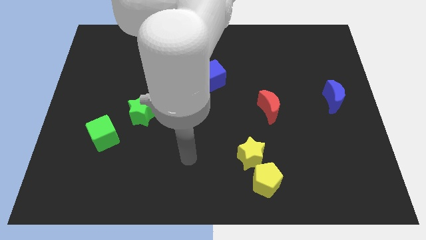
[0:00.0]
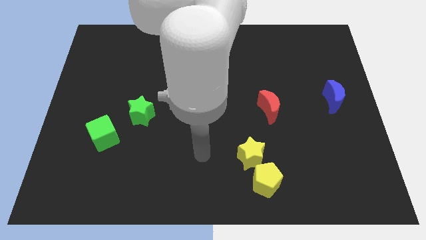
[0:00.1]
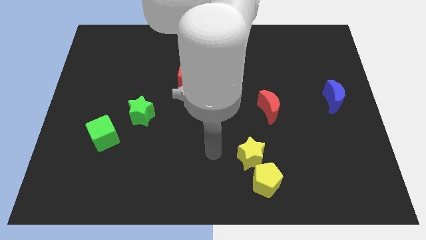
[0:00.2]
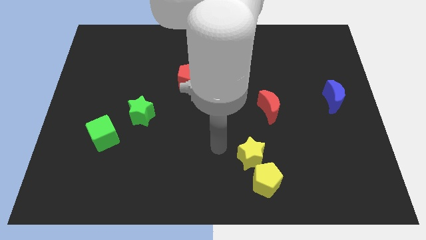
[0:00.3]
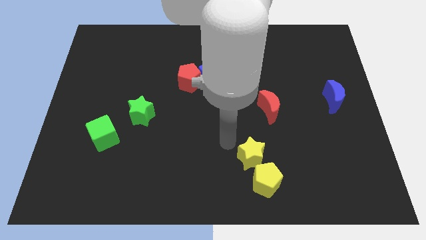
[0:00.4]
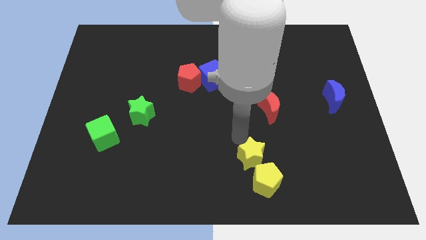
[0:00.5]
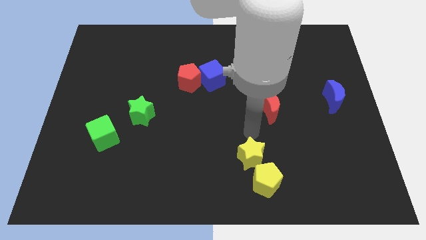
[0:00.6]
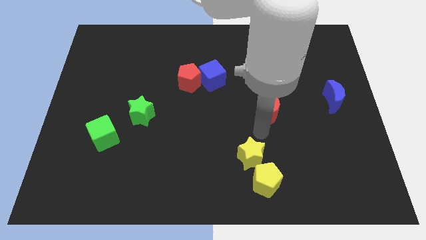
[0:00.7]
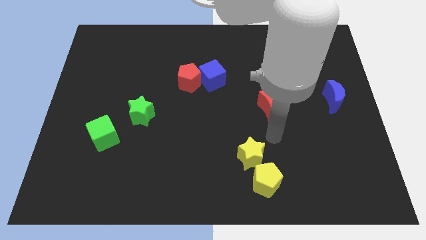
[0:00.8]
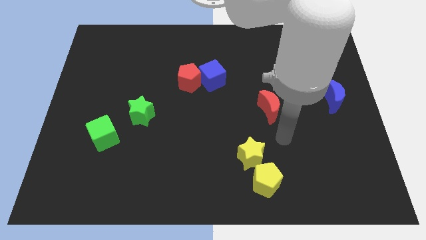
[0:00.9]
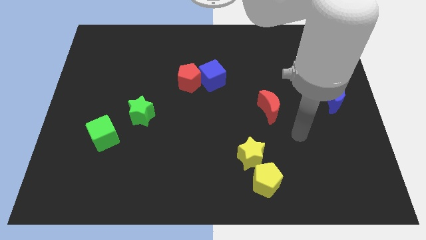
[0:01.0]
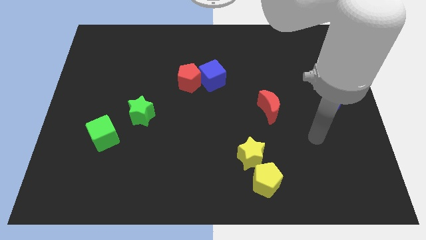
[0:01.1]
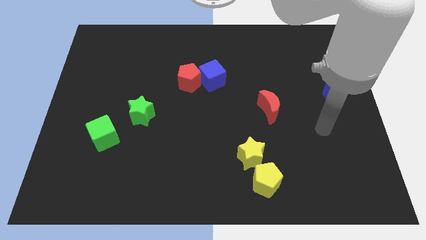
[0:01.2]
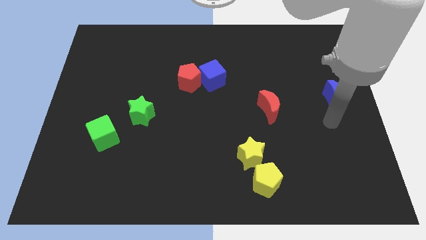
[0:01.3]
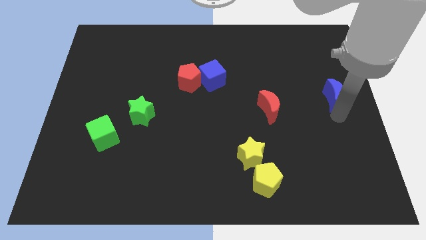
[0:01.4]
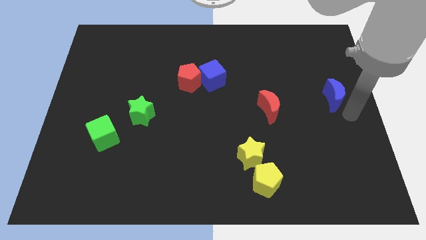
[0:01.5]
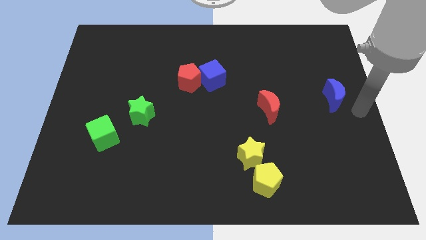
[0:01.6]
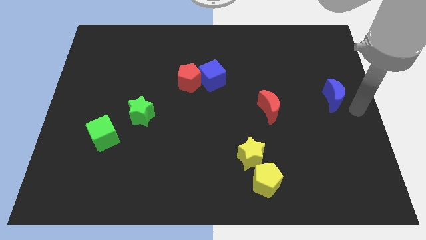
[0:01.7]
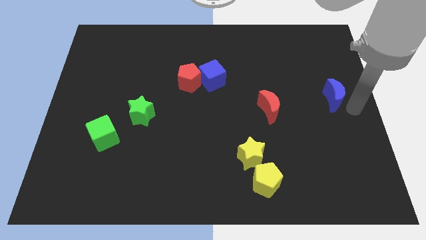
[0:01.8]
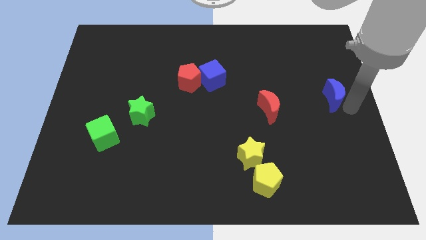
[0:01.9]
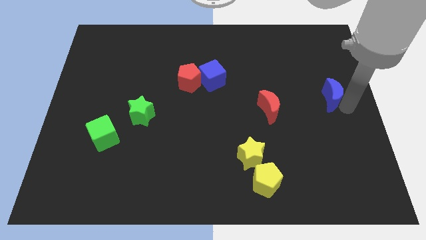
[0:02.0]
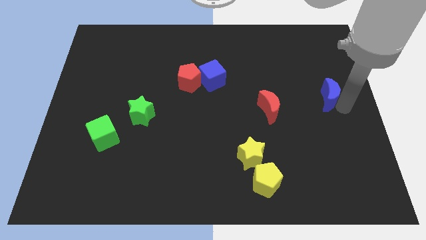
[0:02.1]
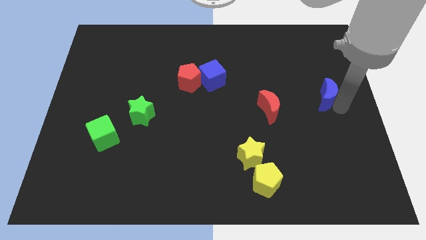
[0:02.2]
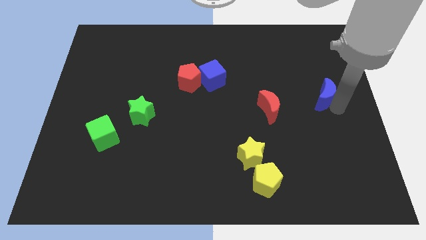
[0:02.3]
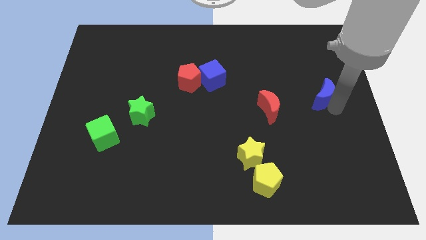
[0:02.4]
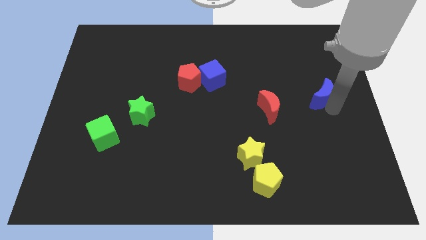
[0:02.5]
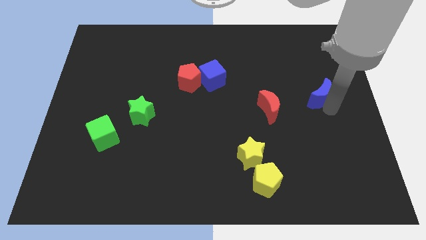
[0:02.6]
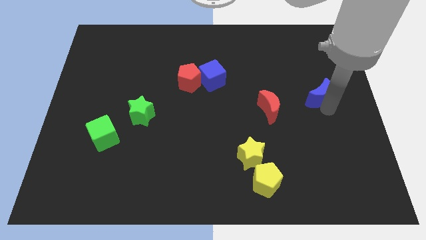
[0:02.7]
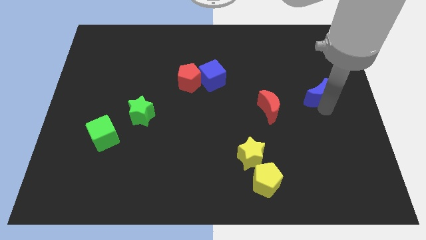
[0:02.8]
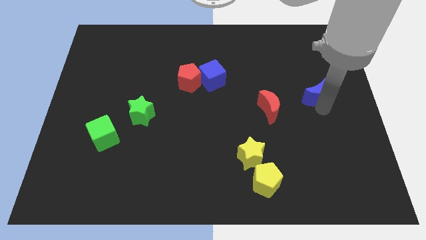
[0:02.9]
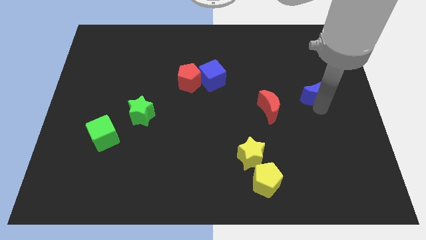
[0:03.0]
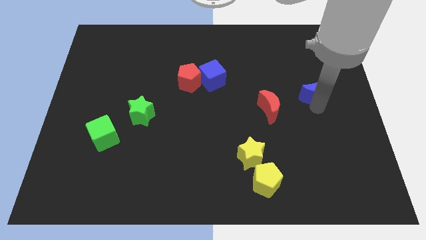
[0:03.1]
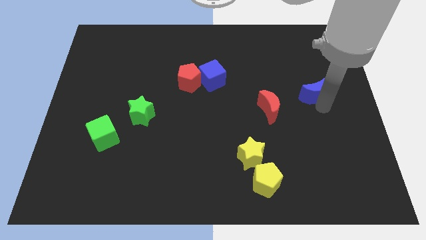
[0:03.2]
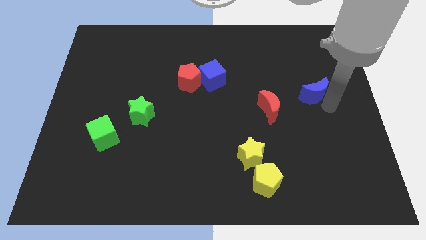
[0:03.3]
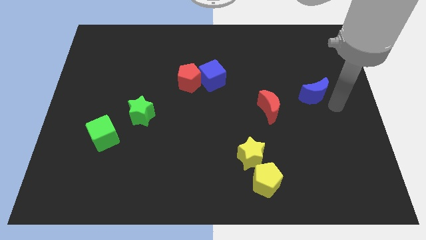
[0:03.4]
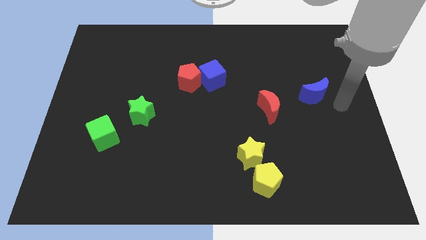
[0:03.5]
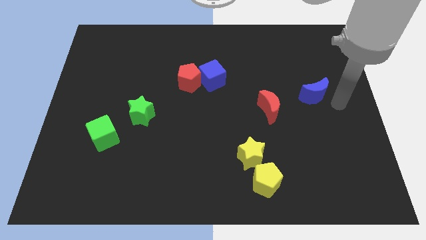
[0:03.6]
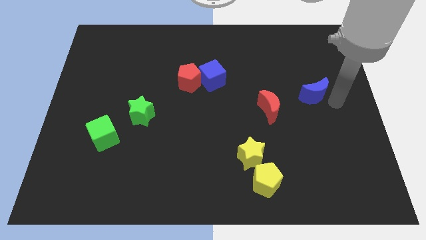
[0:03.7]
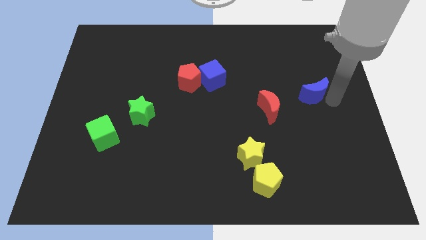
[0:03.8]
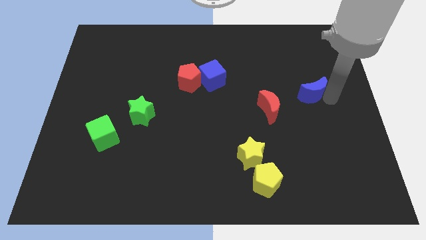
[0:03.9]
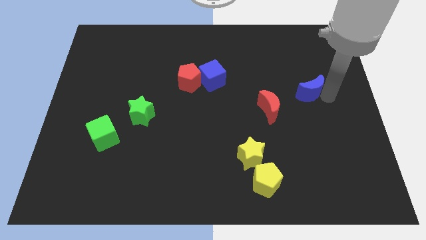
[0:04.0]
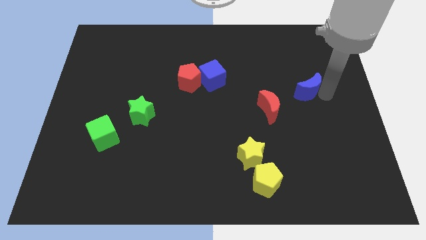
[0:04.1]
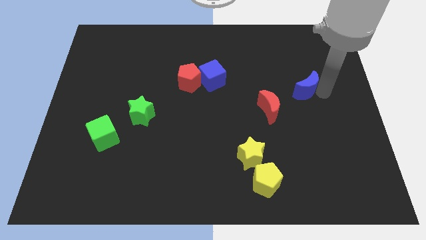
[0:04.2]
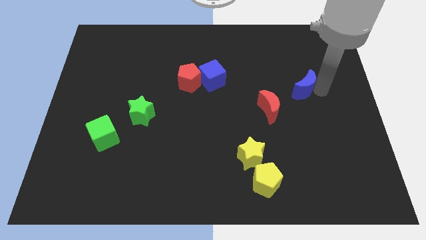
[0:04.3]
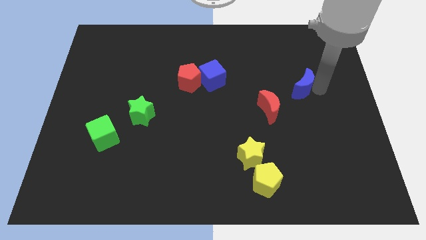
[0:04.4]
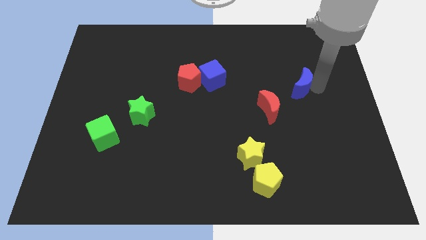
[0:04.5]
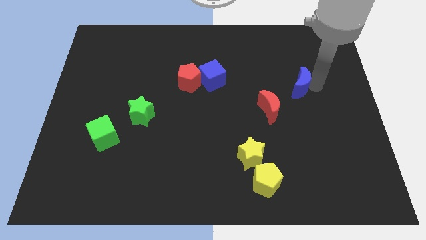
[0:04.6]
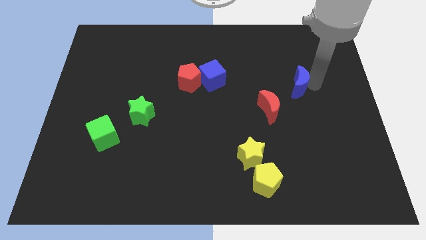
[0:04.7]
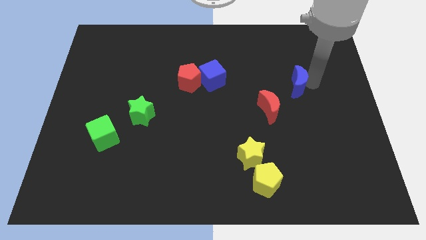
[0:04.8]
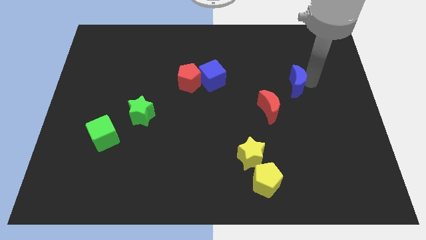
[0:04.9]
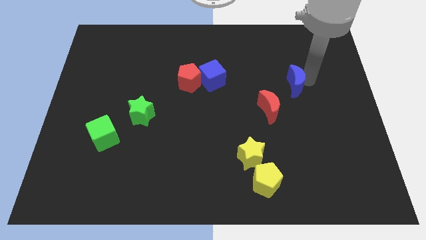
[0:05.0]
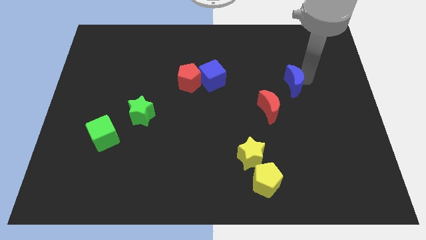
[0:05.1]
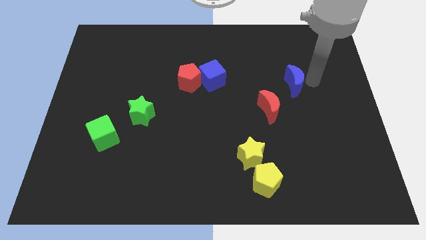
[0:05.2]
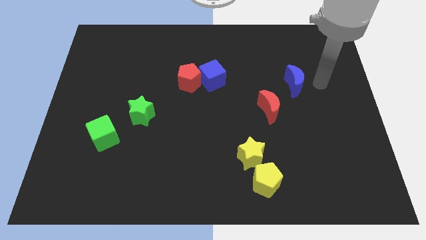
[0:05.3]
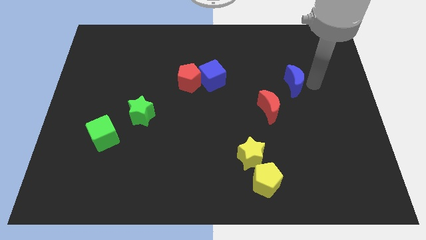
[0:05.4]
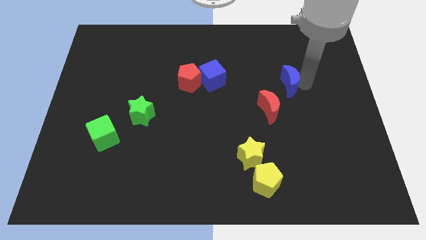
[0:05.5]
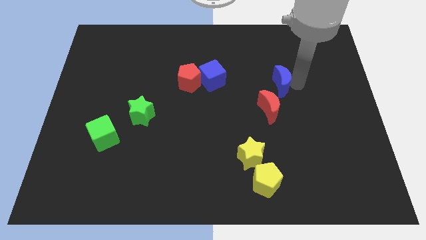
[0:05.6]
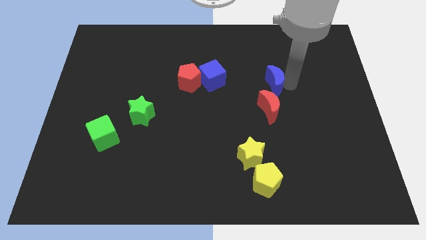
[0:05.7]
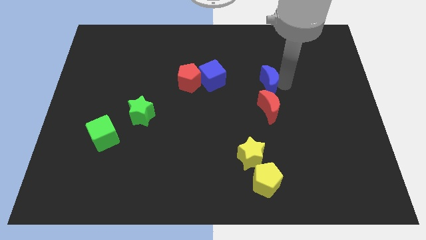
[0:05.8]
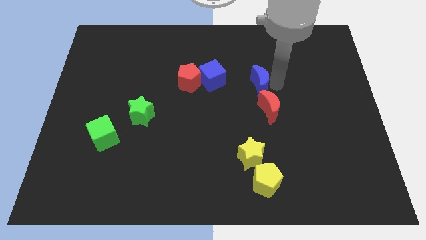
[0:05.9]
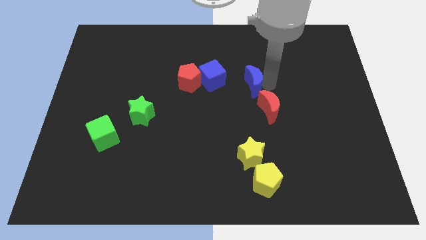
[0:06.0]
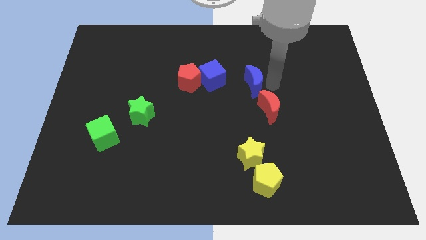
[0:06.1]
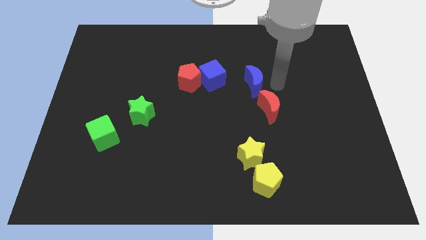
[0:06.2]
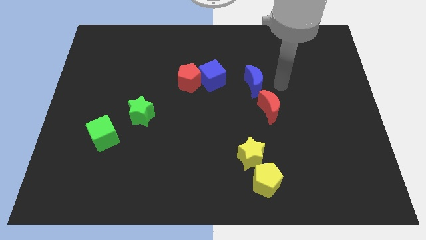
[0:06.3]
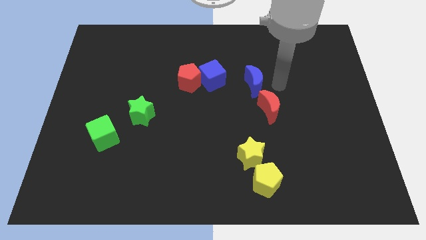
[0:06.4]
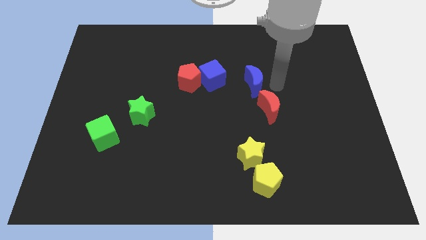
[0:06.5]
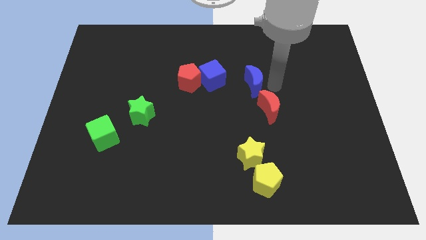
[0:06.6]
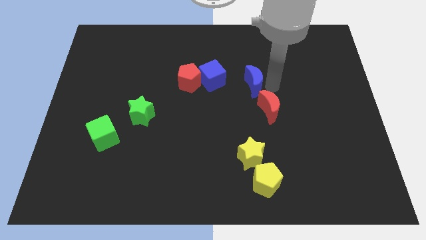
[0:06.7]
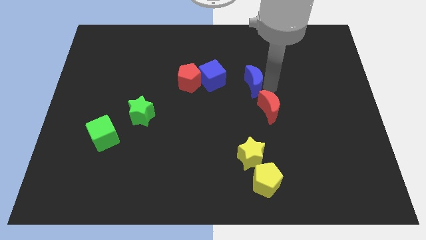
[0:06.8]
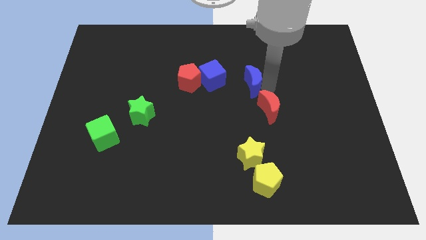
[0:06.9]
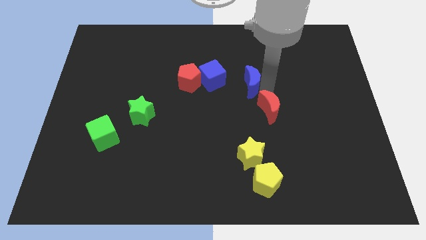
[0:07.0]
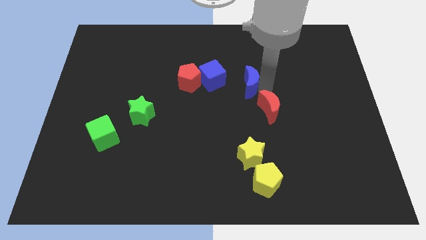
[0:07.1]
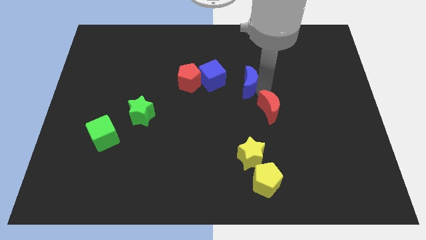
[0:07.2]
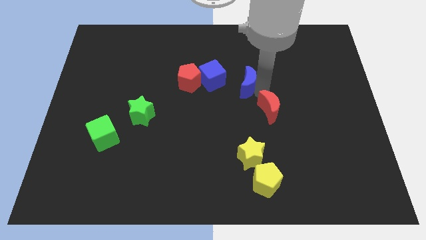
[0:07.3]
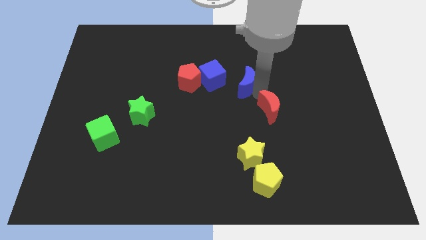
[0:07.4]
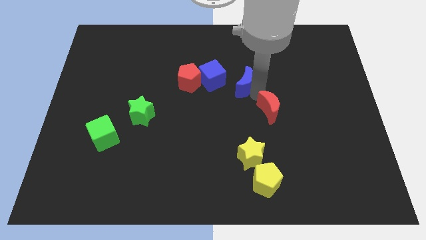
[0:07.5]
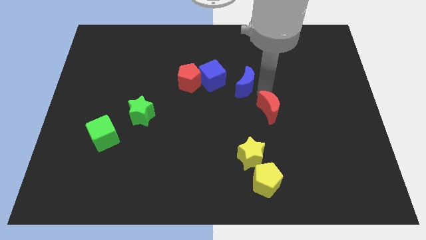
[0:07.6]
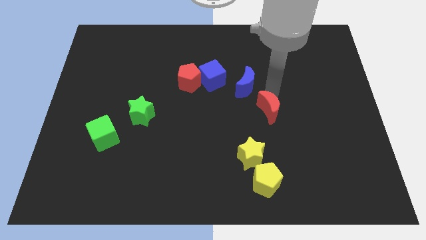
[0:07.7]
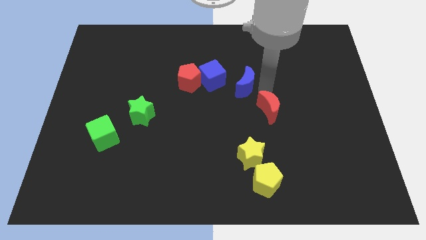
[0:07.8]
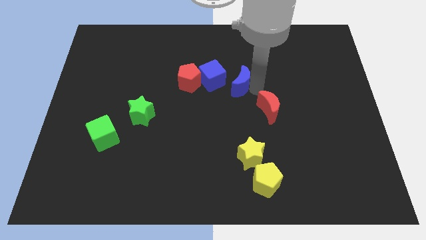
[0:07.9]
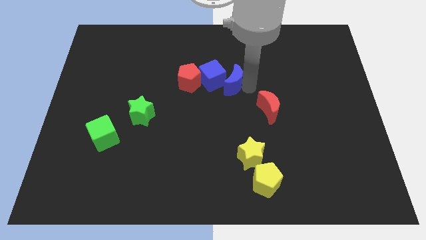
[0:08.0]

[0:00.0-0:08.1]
push the blue moon towards the blue cube
